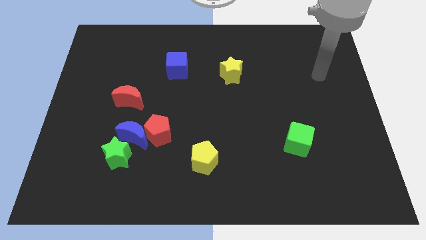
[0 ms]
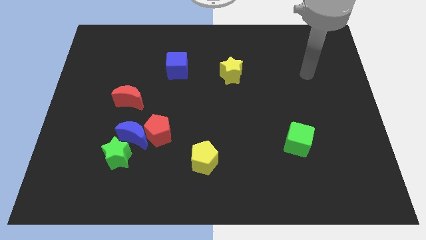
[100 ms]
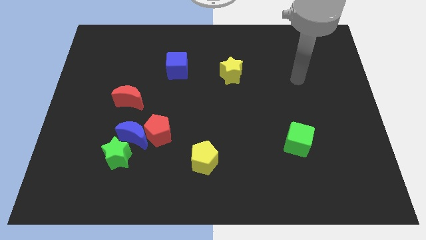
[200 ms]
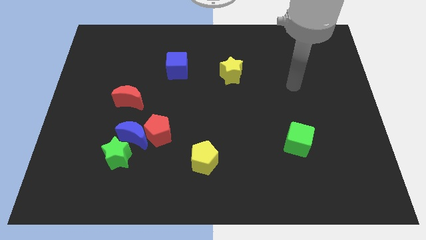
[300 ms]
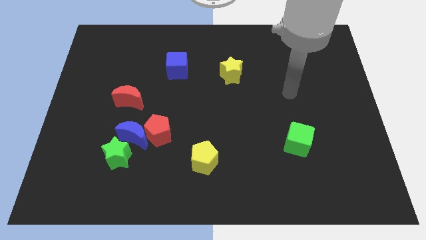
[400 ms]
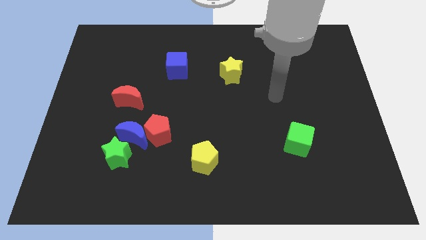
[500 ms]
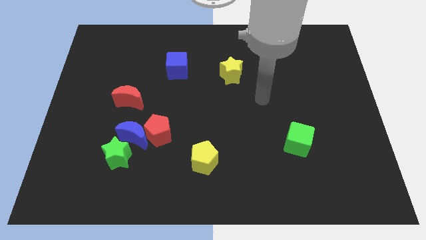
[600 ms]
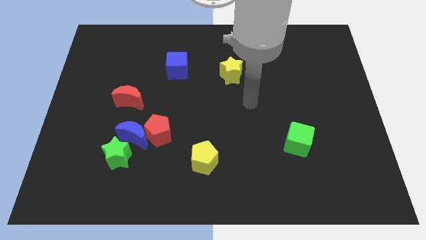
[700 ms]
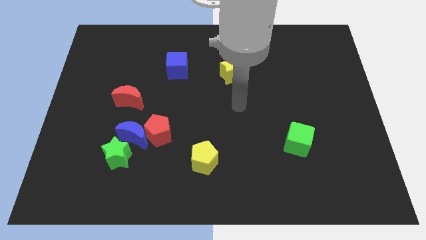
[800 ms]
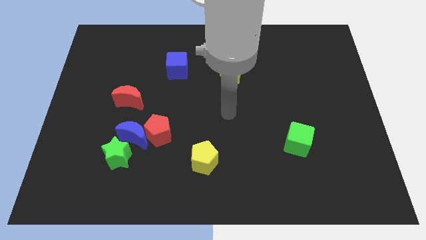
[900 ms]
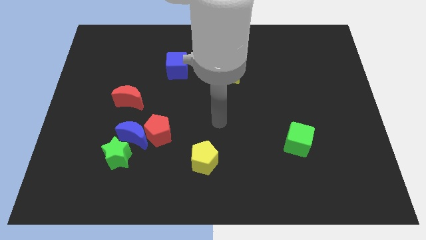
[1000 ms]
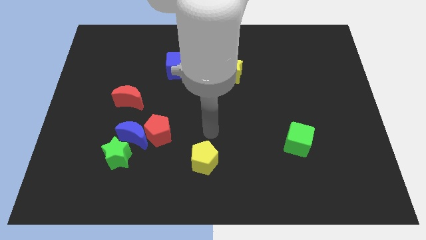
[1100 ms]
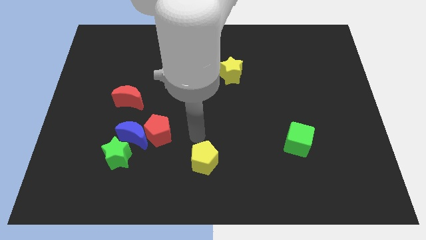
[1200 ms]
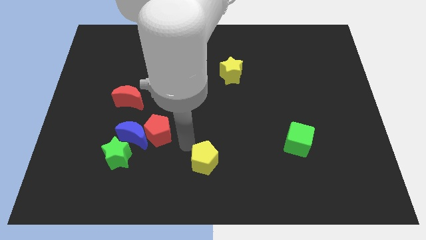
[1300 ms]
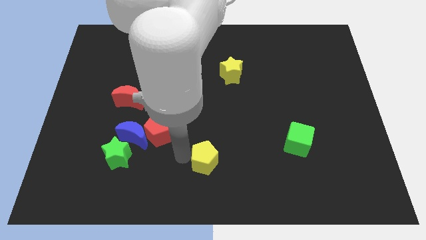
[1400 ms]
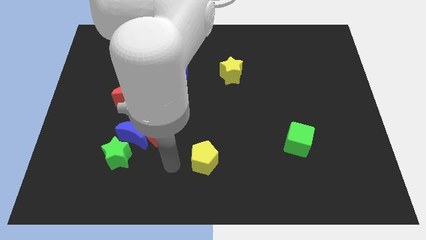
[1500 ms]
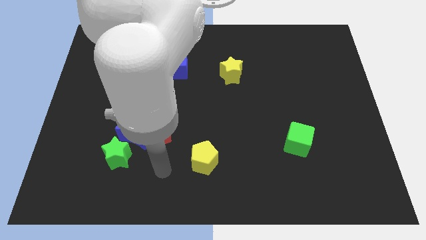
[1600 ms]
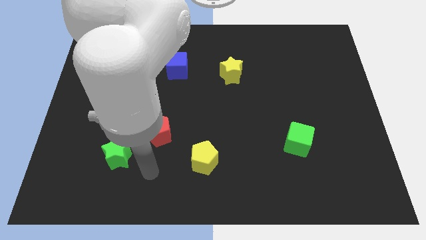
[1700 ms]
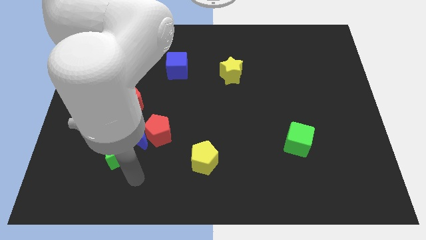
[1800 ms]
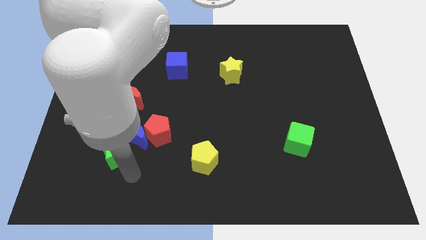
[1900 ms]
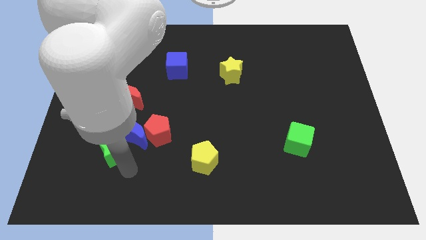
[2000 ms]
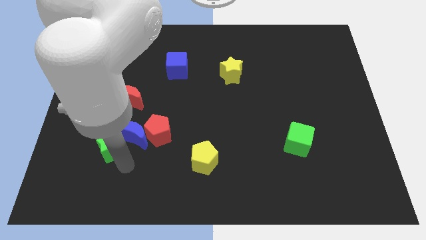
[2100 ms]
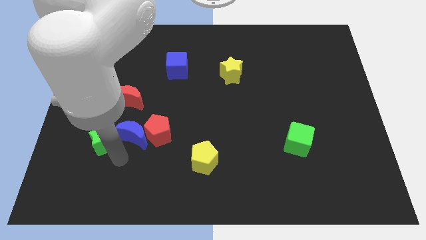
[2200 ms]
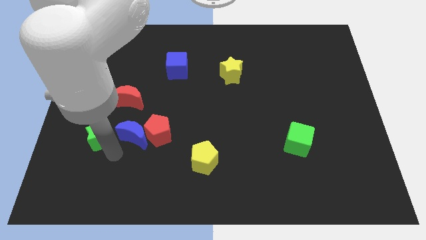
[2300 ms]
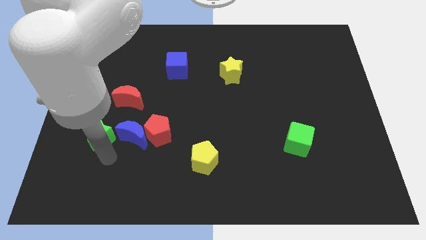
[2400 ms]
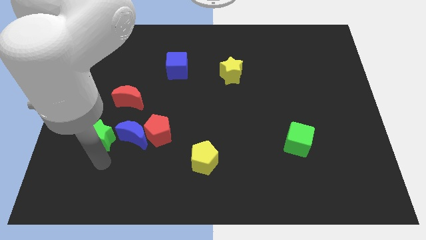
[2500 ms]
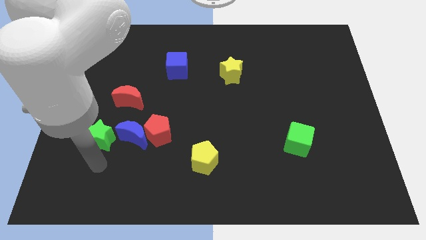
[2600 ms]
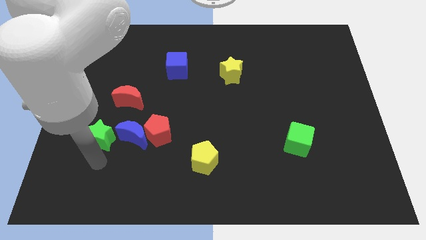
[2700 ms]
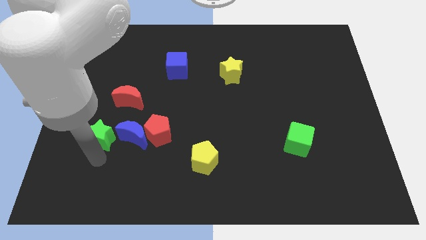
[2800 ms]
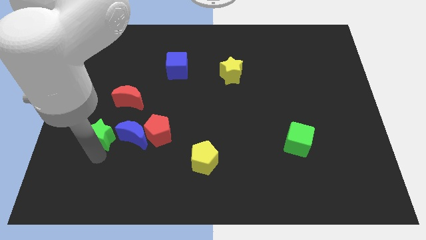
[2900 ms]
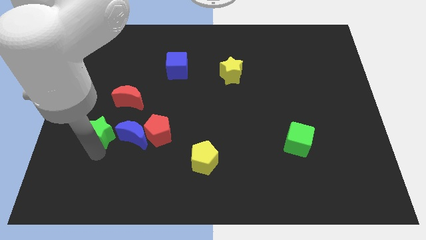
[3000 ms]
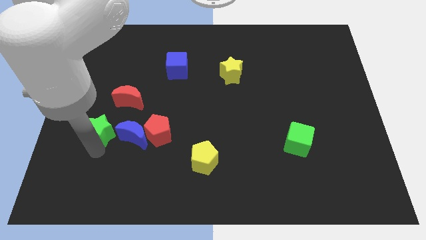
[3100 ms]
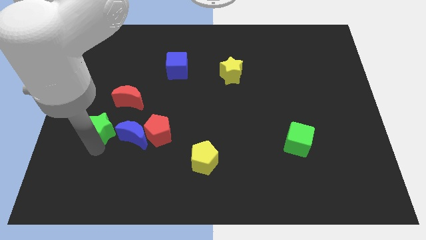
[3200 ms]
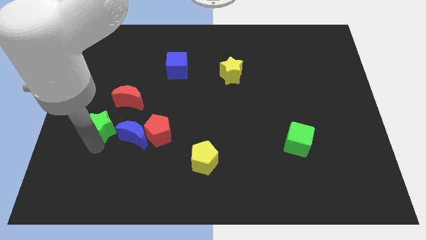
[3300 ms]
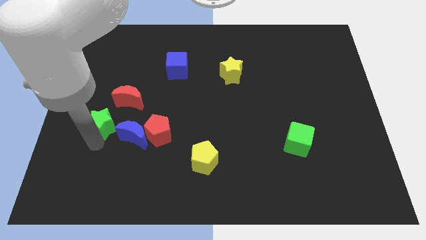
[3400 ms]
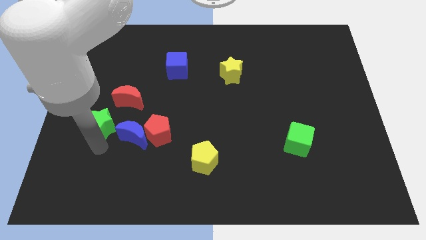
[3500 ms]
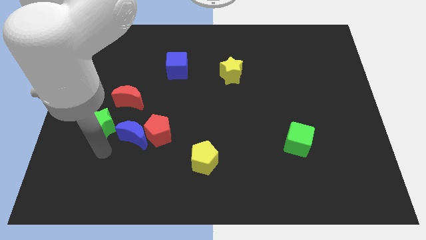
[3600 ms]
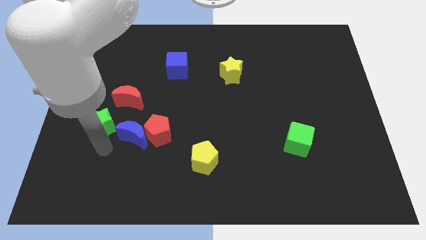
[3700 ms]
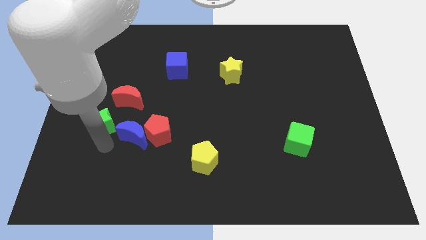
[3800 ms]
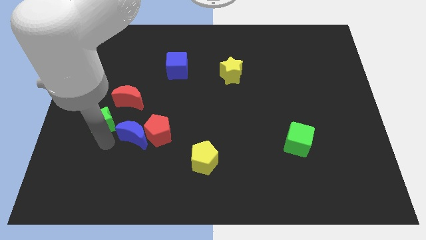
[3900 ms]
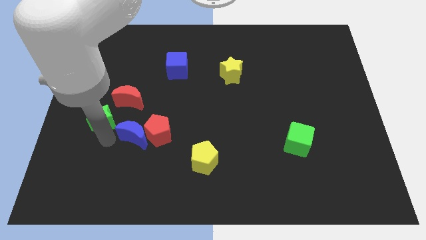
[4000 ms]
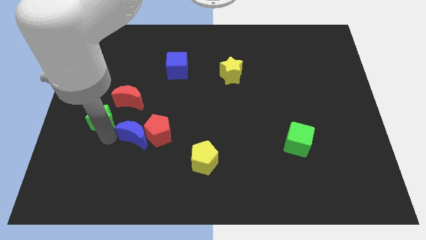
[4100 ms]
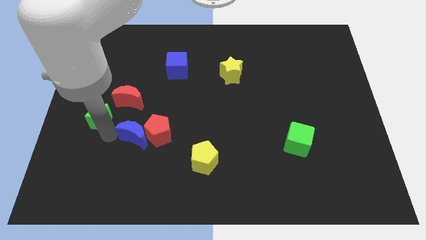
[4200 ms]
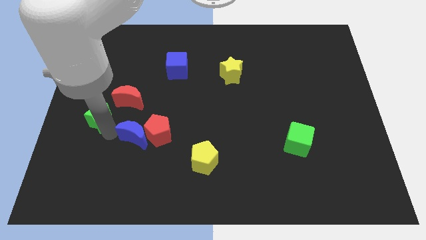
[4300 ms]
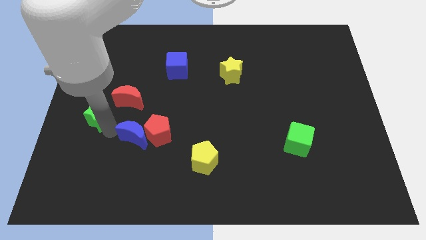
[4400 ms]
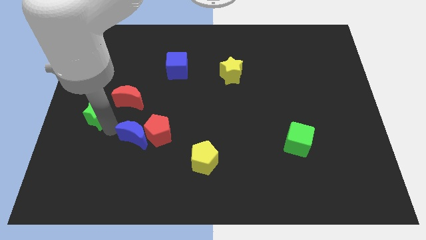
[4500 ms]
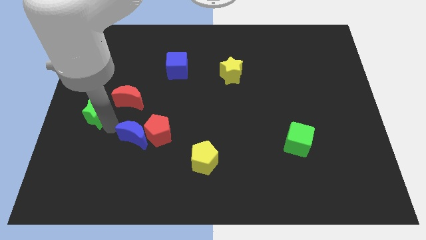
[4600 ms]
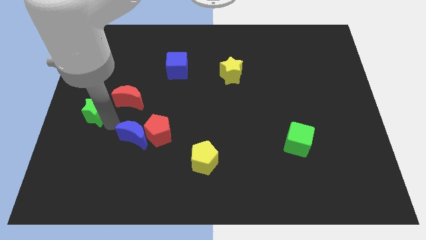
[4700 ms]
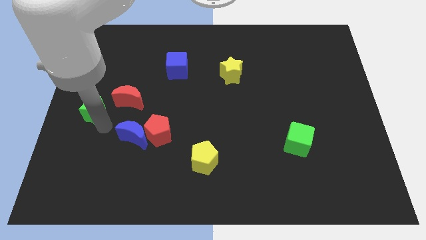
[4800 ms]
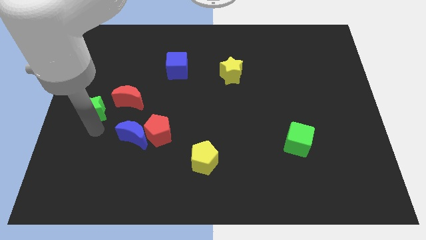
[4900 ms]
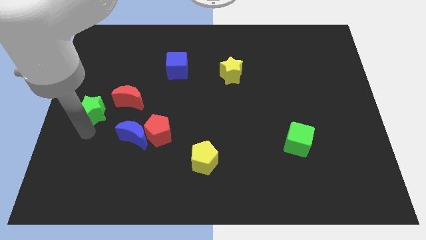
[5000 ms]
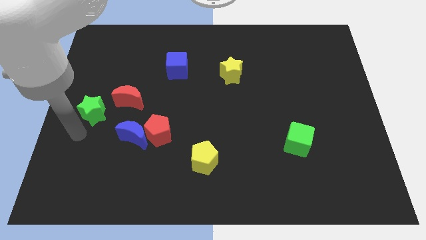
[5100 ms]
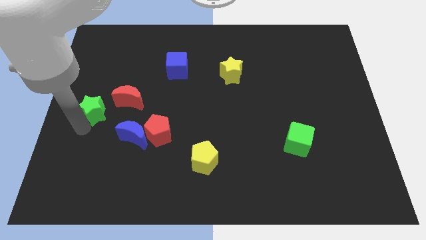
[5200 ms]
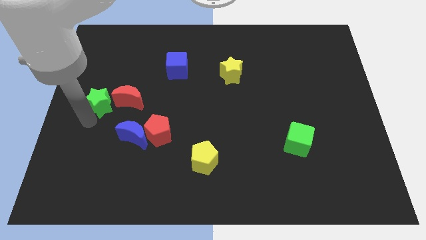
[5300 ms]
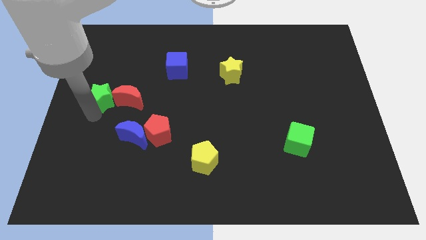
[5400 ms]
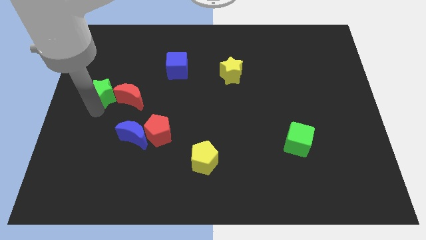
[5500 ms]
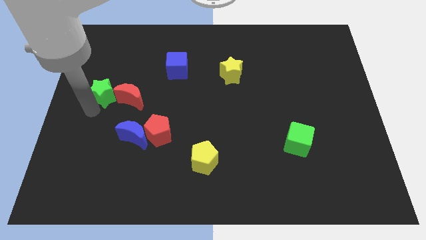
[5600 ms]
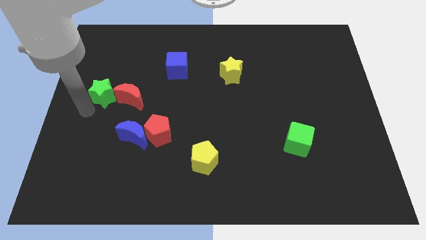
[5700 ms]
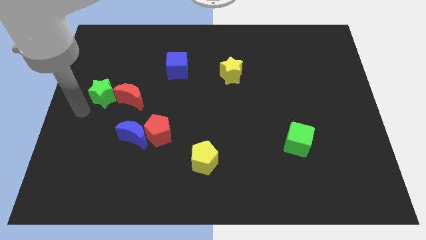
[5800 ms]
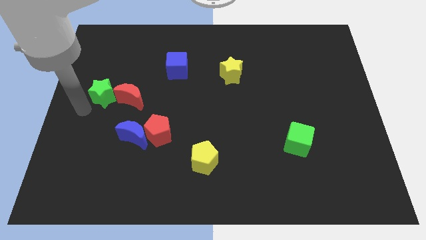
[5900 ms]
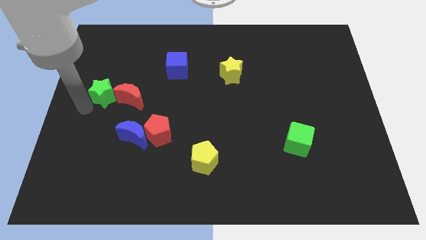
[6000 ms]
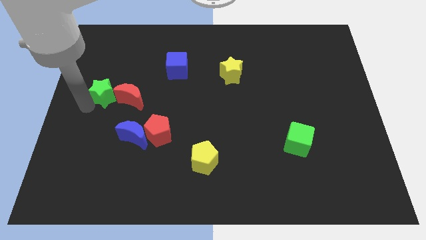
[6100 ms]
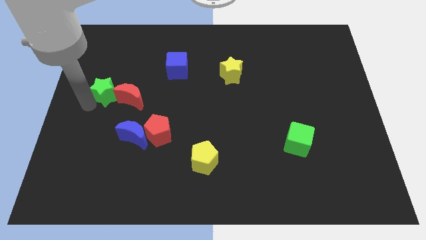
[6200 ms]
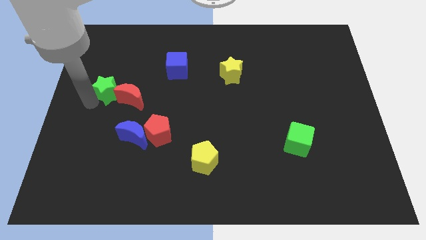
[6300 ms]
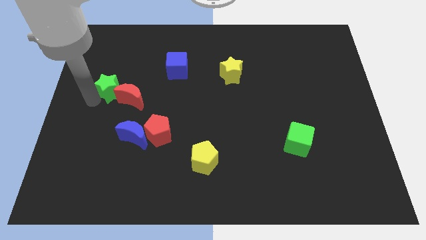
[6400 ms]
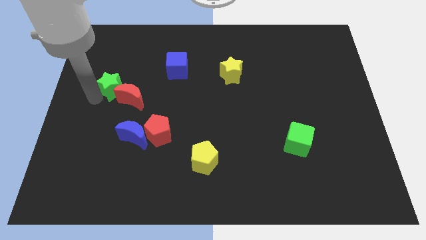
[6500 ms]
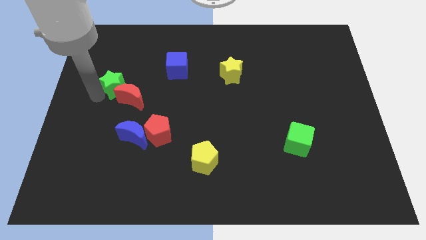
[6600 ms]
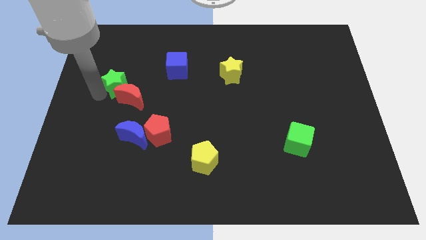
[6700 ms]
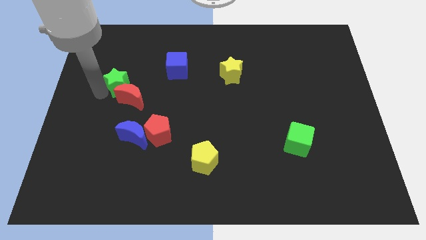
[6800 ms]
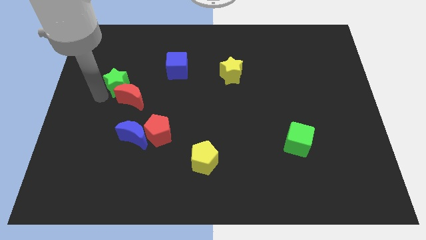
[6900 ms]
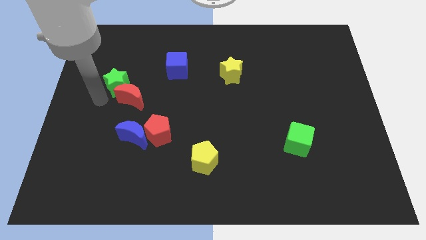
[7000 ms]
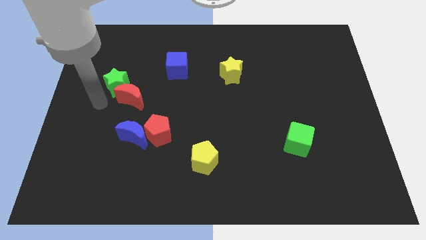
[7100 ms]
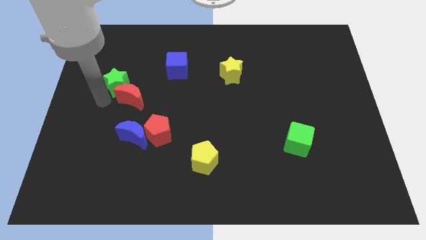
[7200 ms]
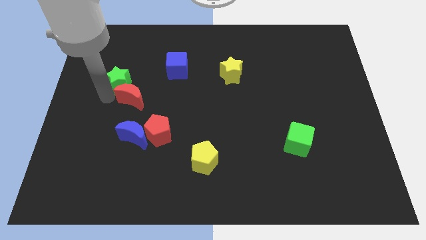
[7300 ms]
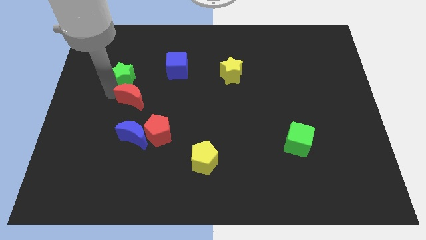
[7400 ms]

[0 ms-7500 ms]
move the green star just left of the blue cube

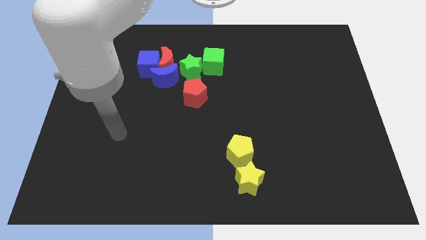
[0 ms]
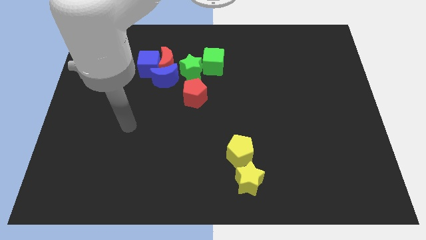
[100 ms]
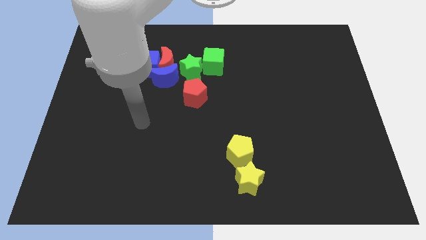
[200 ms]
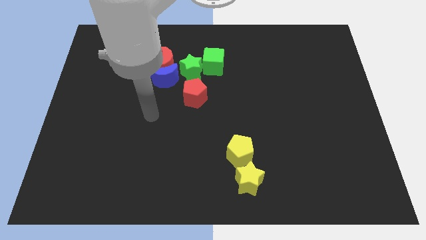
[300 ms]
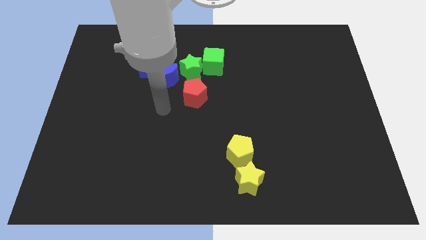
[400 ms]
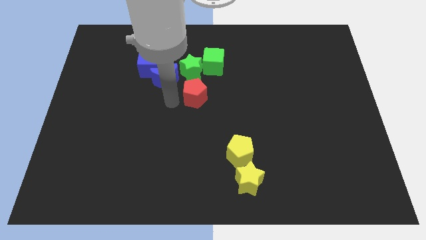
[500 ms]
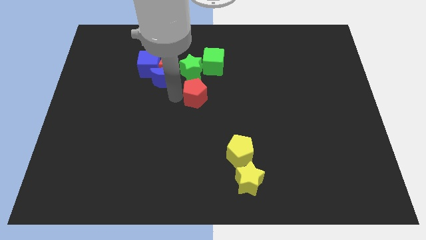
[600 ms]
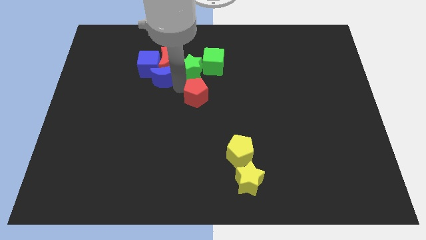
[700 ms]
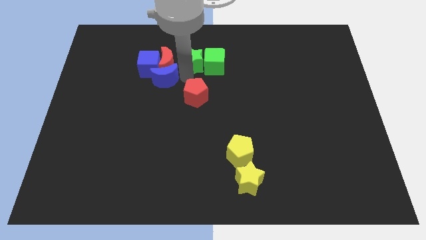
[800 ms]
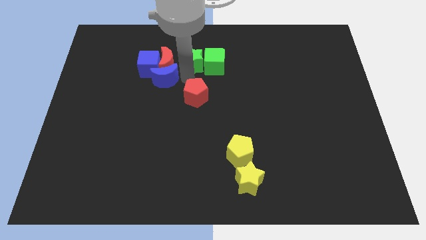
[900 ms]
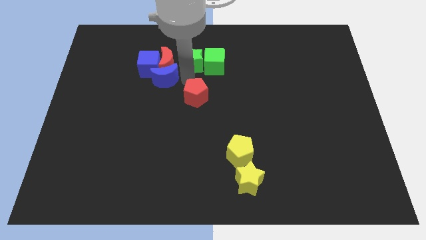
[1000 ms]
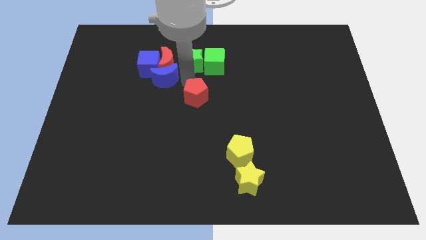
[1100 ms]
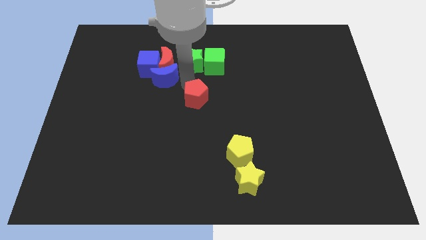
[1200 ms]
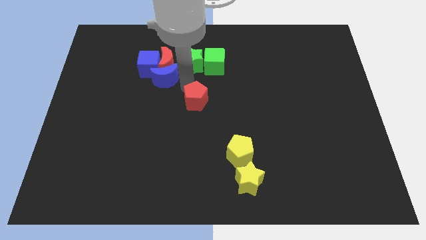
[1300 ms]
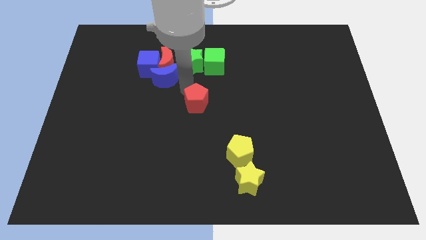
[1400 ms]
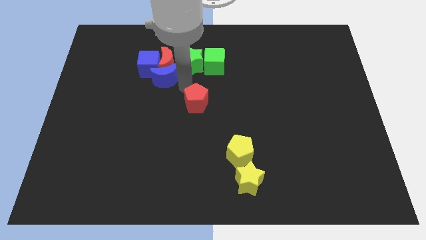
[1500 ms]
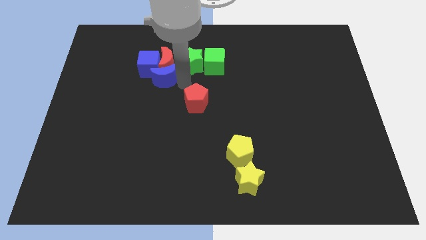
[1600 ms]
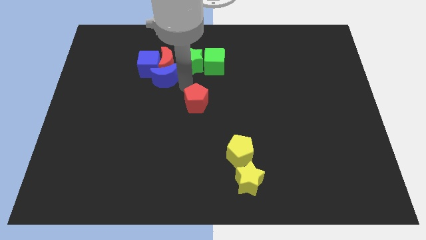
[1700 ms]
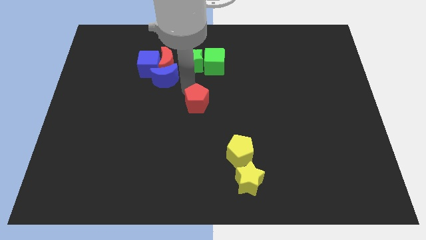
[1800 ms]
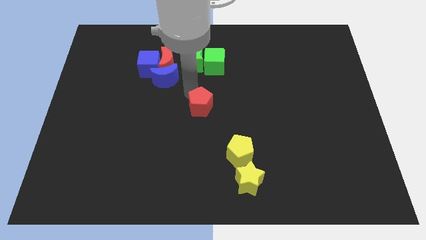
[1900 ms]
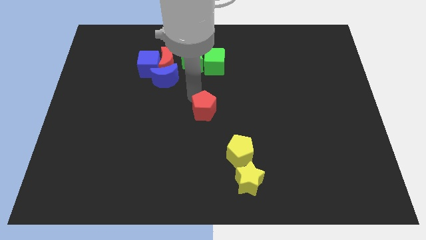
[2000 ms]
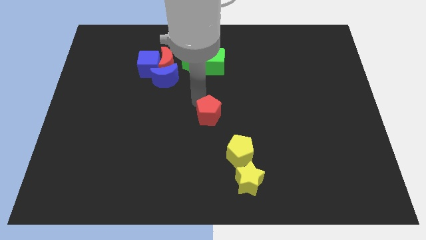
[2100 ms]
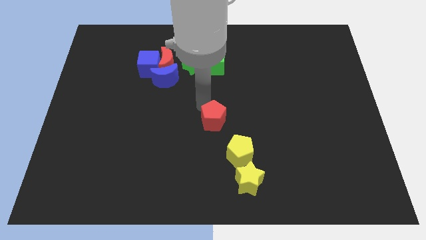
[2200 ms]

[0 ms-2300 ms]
slide the red pentagon to the top left side of the yellow pentagon
